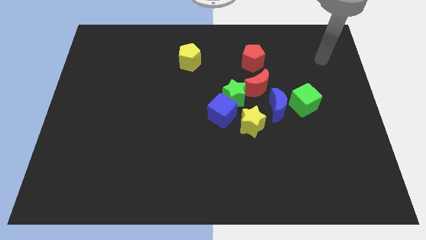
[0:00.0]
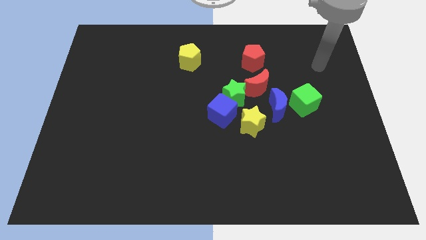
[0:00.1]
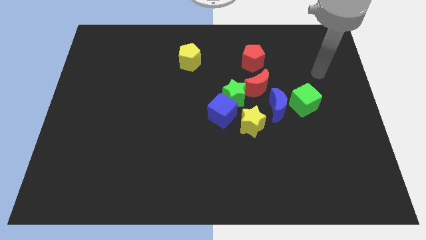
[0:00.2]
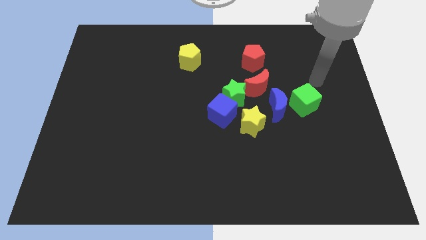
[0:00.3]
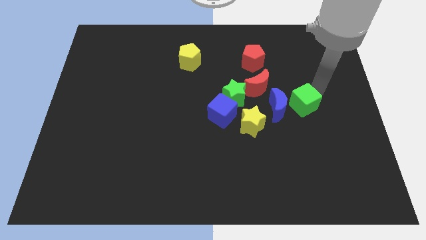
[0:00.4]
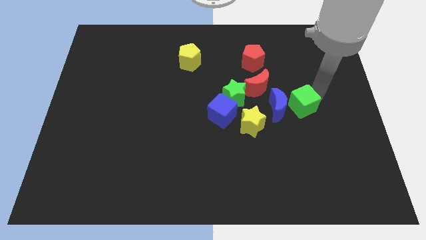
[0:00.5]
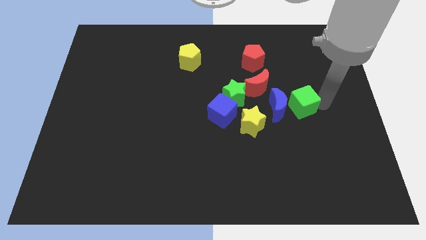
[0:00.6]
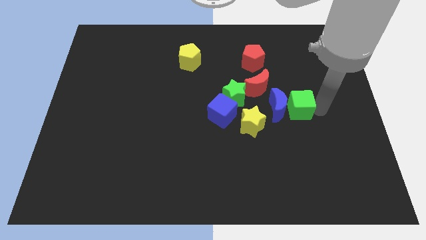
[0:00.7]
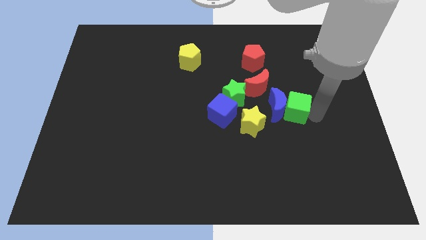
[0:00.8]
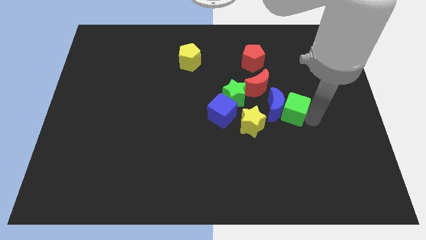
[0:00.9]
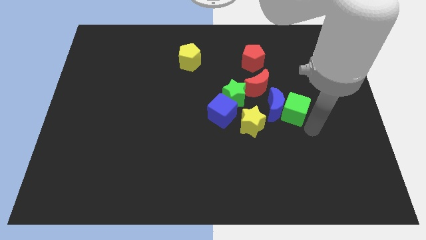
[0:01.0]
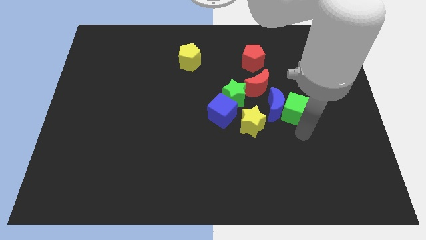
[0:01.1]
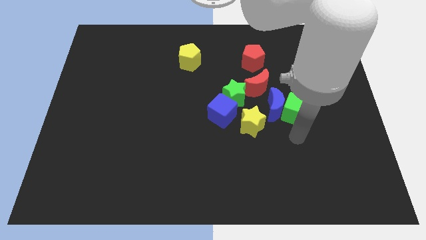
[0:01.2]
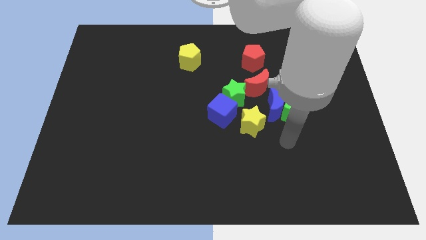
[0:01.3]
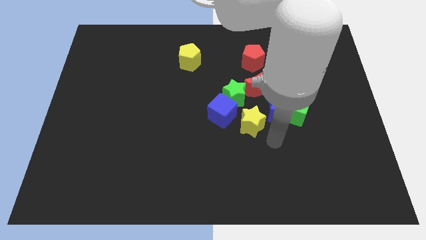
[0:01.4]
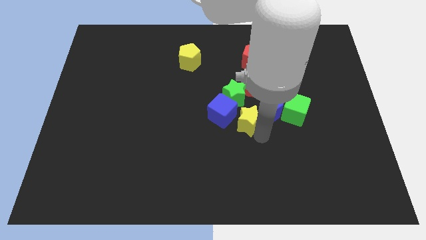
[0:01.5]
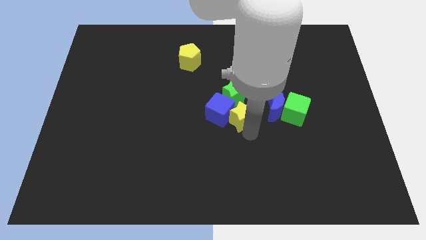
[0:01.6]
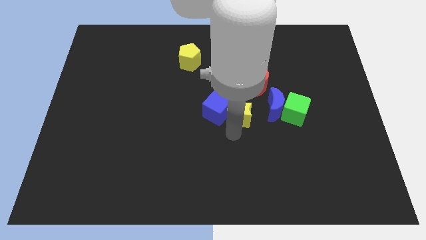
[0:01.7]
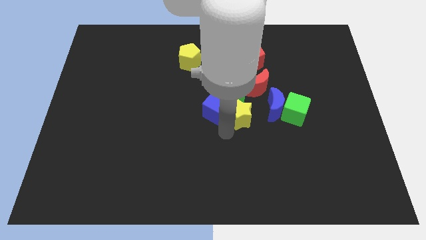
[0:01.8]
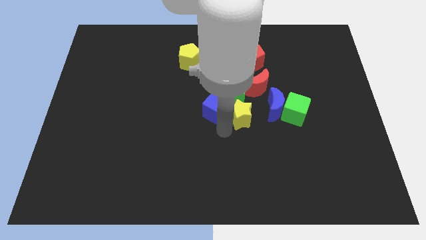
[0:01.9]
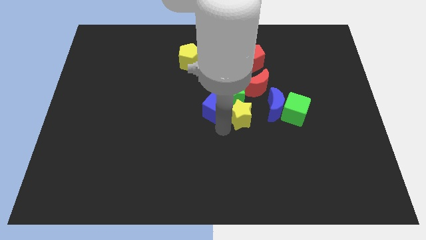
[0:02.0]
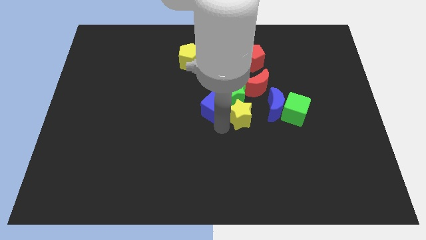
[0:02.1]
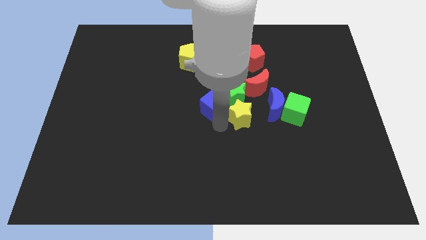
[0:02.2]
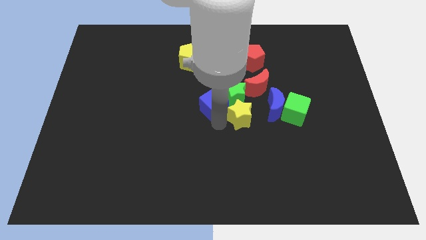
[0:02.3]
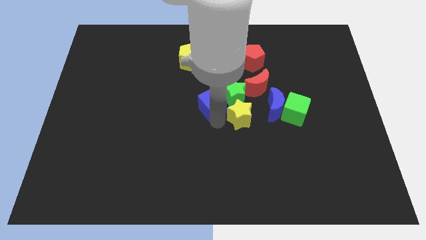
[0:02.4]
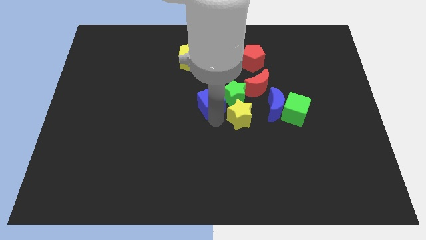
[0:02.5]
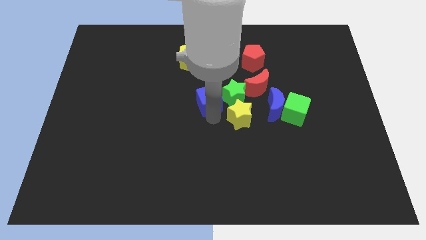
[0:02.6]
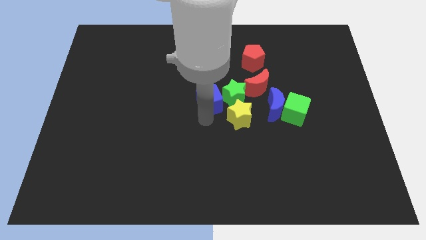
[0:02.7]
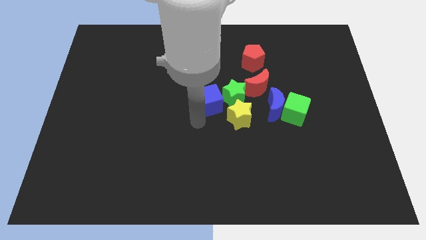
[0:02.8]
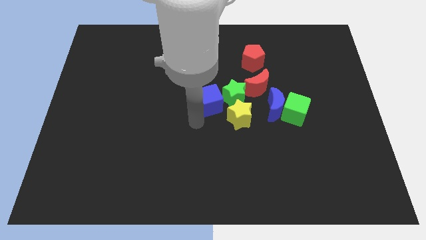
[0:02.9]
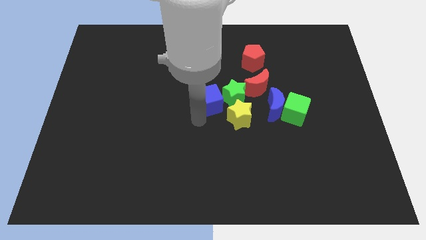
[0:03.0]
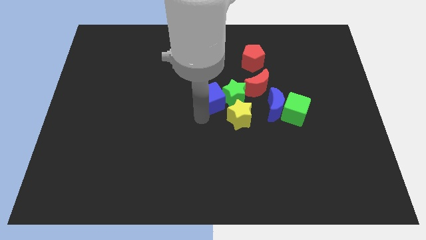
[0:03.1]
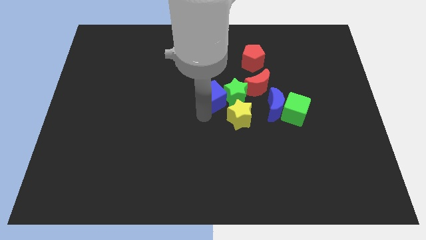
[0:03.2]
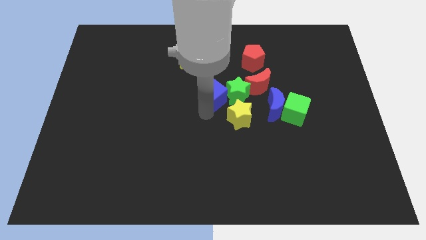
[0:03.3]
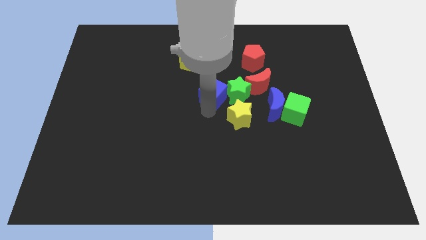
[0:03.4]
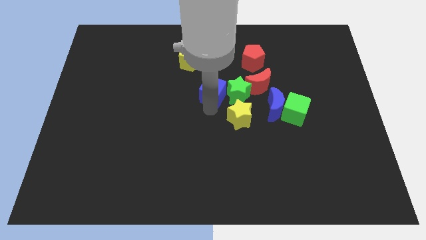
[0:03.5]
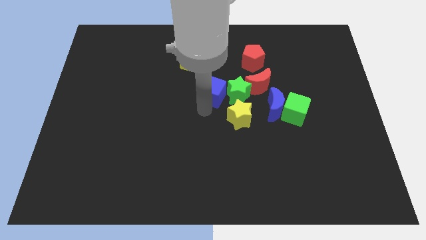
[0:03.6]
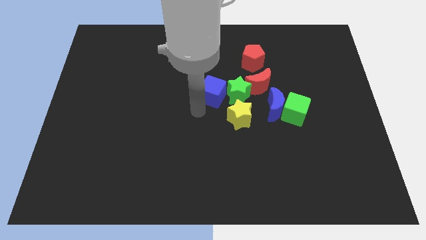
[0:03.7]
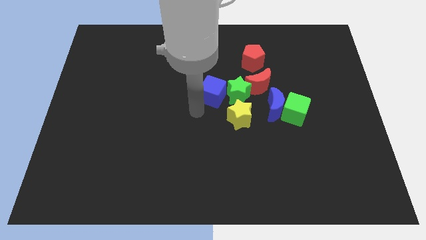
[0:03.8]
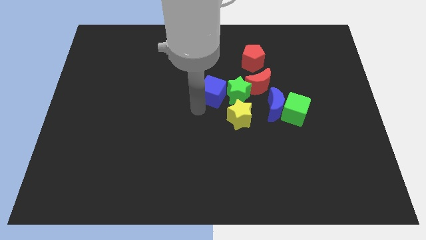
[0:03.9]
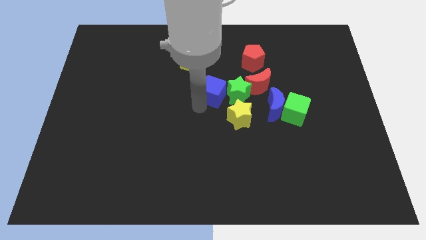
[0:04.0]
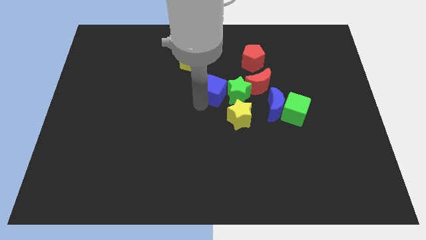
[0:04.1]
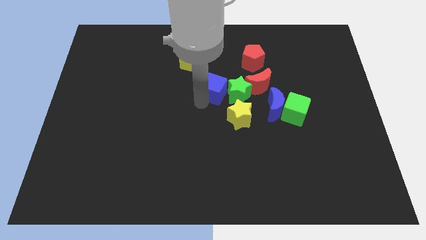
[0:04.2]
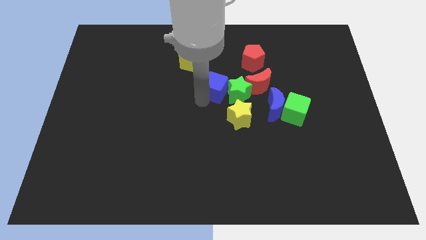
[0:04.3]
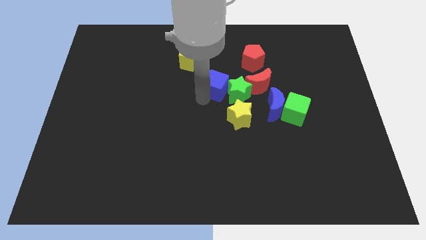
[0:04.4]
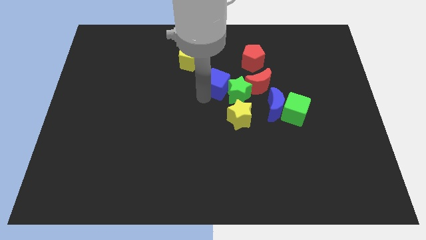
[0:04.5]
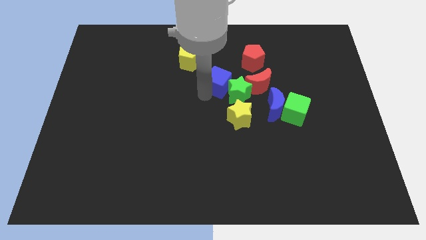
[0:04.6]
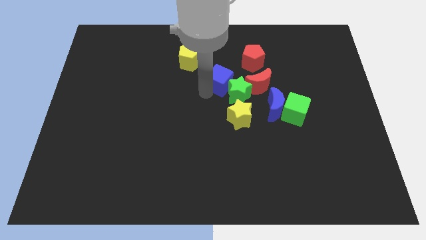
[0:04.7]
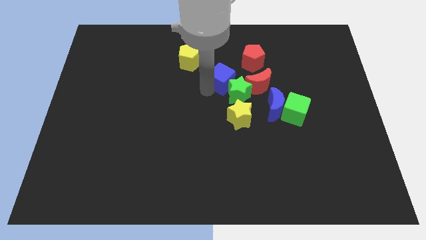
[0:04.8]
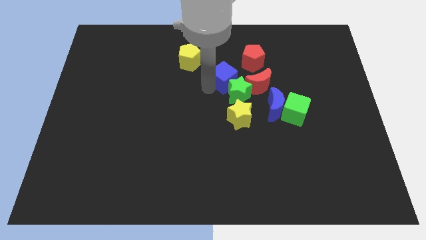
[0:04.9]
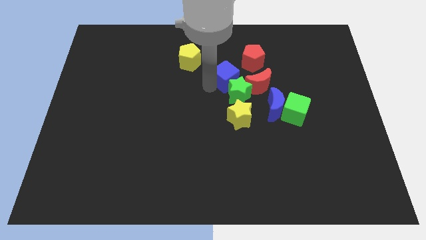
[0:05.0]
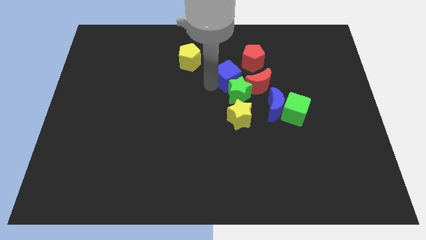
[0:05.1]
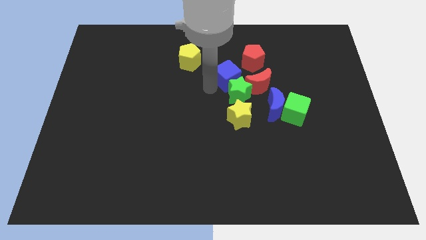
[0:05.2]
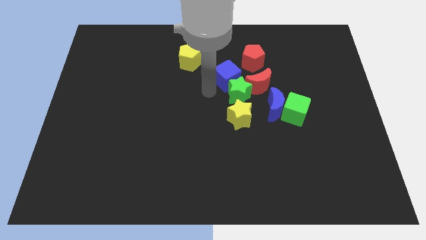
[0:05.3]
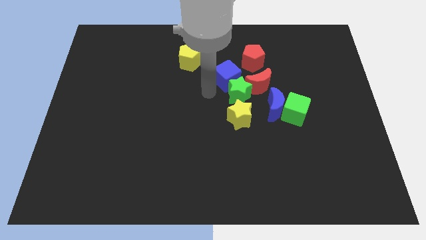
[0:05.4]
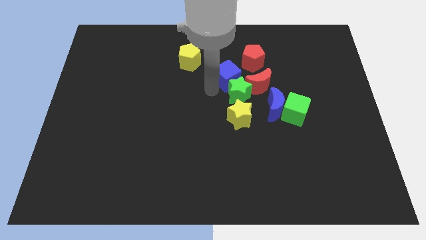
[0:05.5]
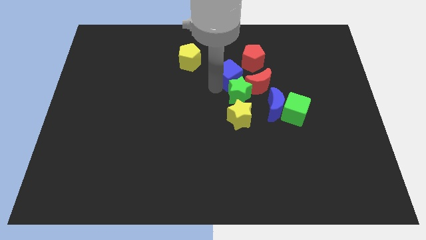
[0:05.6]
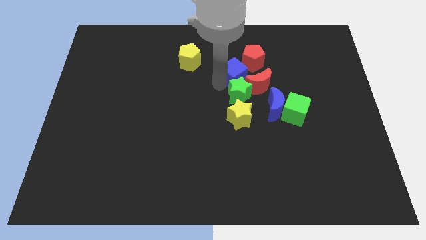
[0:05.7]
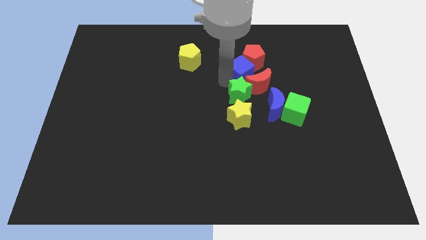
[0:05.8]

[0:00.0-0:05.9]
put the blue cube to the red pentagon

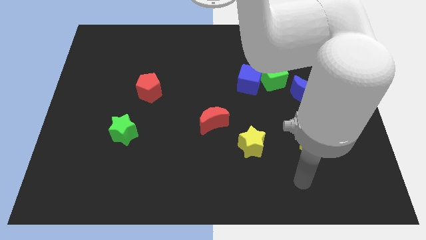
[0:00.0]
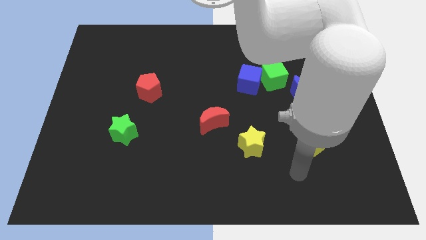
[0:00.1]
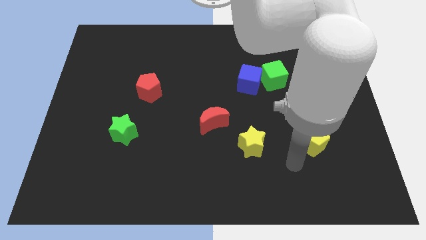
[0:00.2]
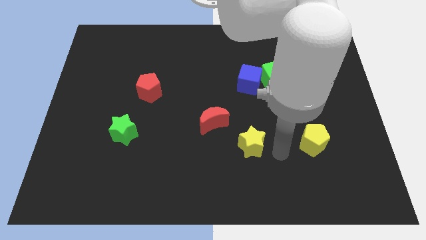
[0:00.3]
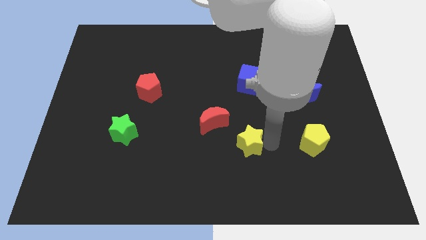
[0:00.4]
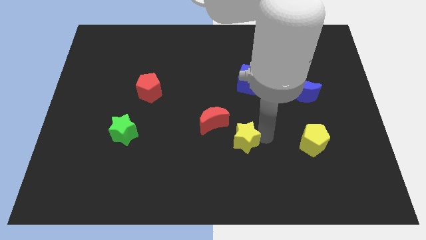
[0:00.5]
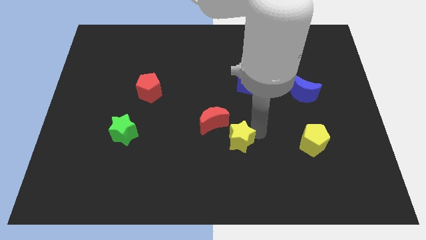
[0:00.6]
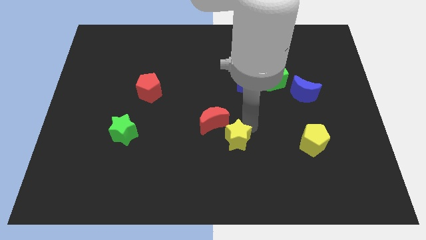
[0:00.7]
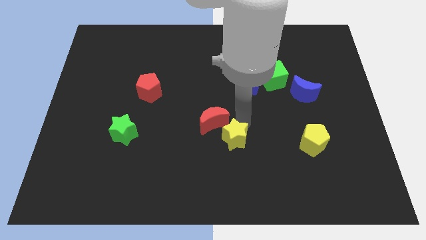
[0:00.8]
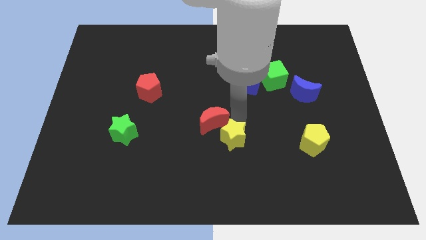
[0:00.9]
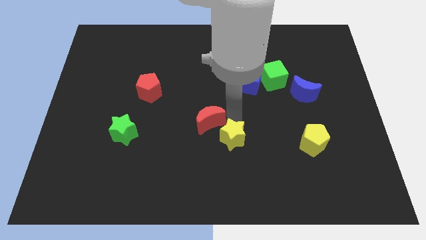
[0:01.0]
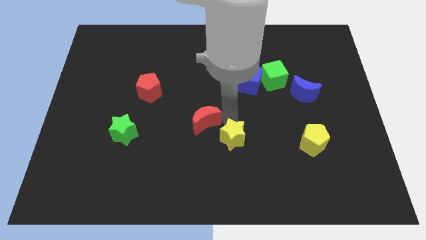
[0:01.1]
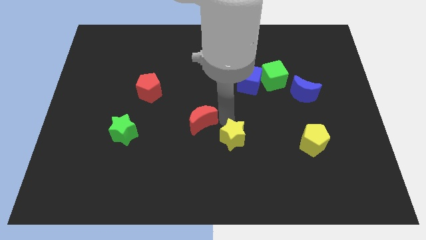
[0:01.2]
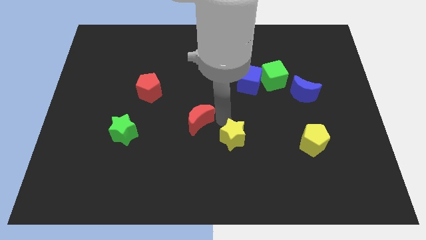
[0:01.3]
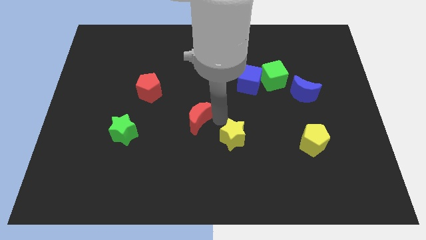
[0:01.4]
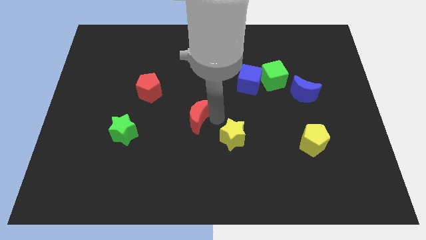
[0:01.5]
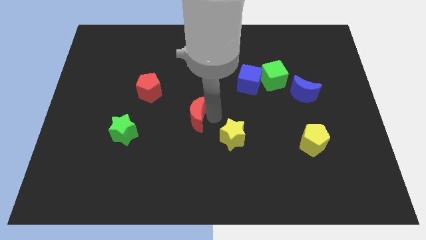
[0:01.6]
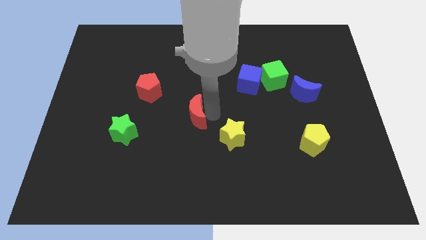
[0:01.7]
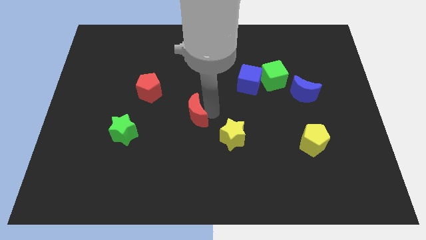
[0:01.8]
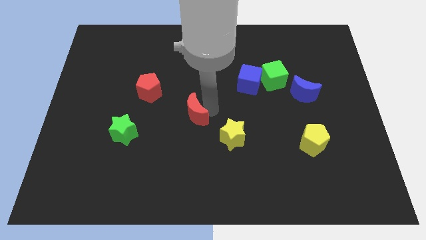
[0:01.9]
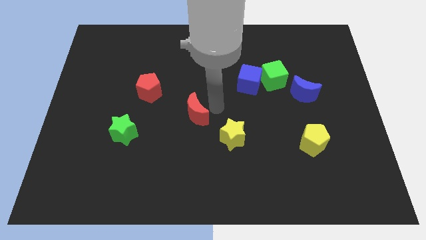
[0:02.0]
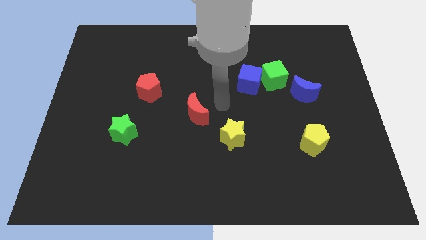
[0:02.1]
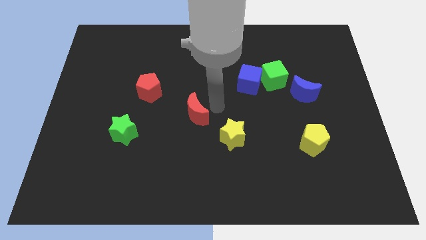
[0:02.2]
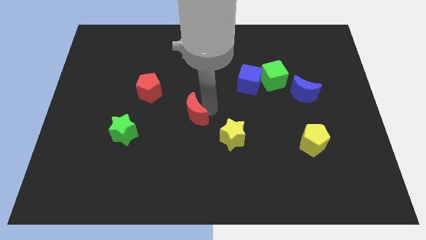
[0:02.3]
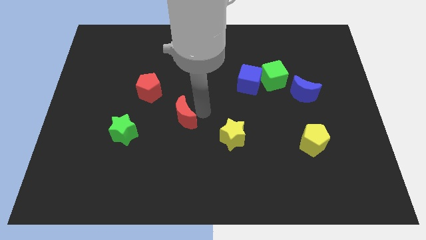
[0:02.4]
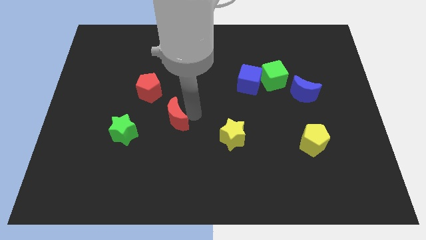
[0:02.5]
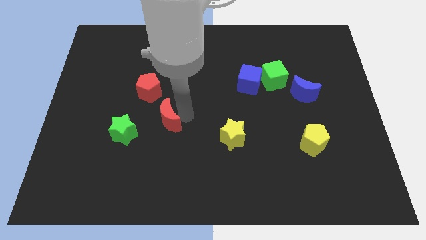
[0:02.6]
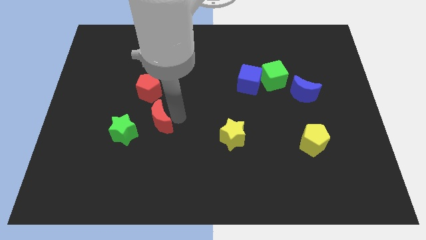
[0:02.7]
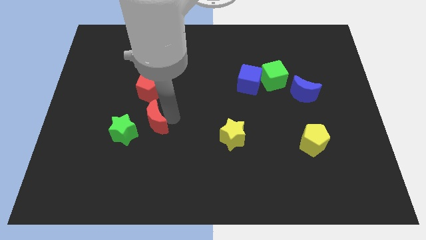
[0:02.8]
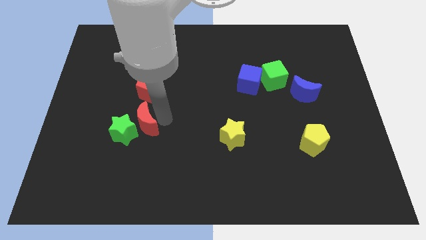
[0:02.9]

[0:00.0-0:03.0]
slide the red moon close to the green star
